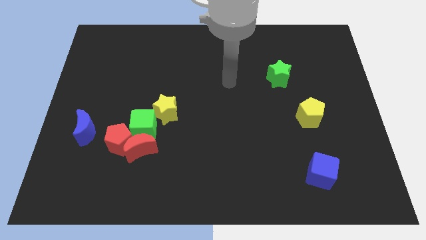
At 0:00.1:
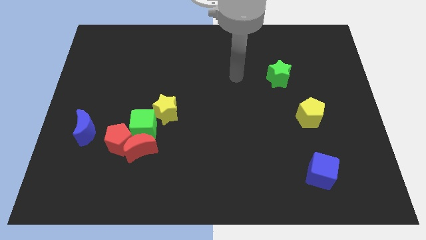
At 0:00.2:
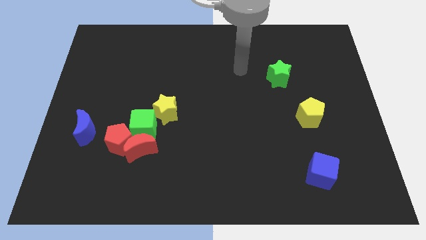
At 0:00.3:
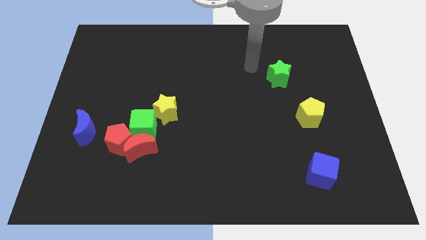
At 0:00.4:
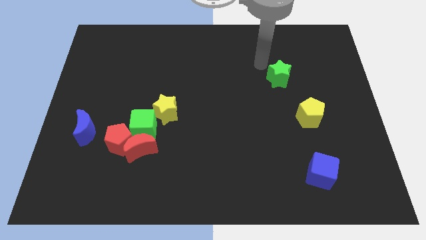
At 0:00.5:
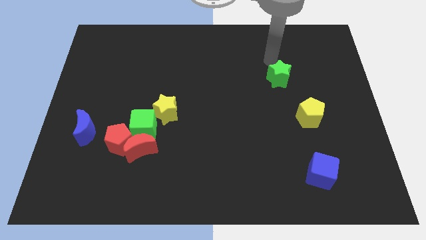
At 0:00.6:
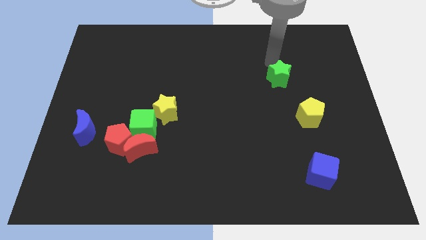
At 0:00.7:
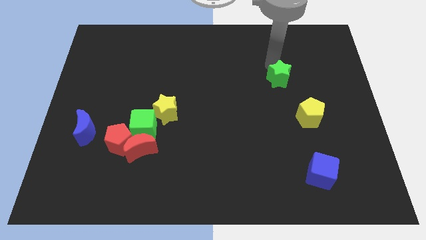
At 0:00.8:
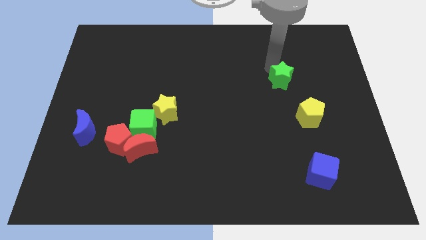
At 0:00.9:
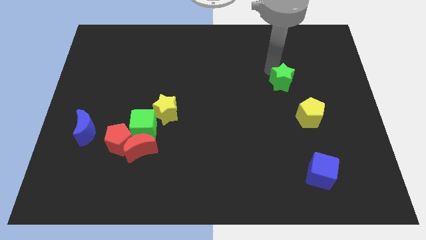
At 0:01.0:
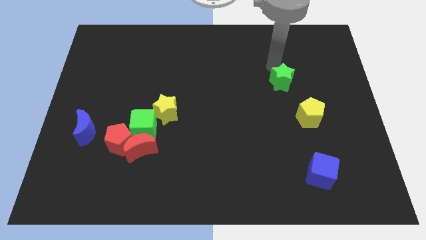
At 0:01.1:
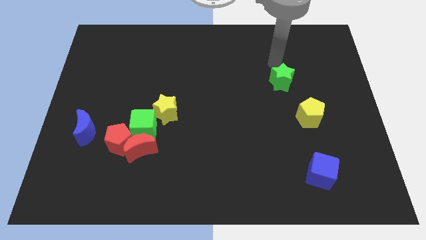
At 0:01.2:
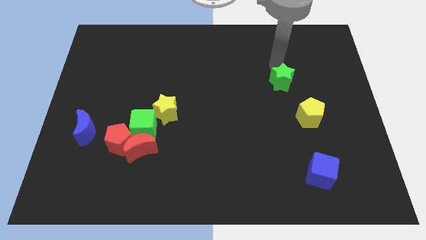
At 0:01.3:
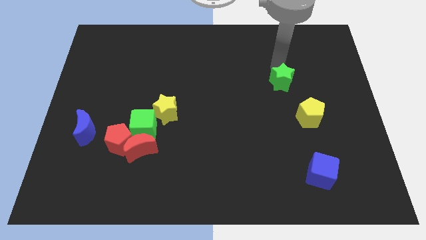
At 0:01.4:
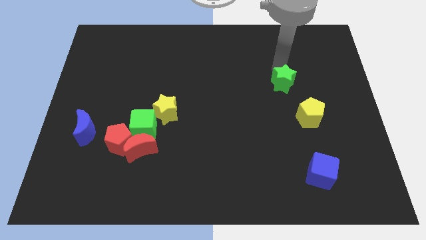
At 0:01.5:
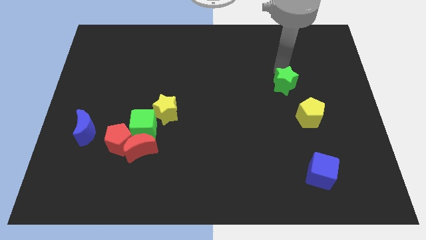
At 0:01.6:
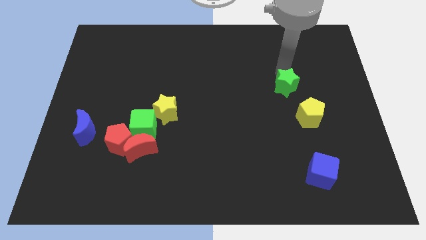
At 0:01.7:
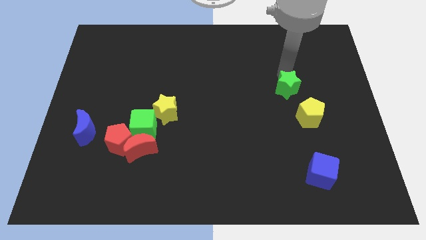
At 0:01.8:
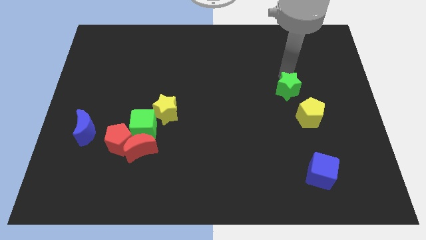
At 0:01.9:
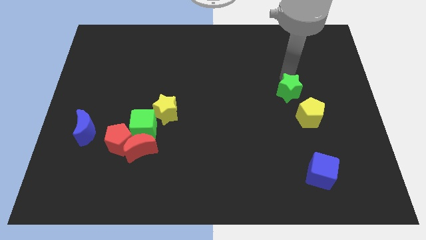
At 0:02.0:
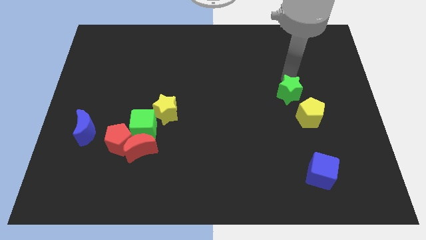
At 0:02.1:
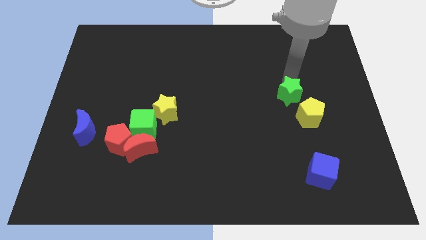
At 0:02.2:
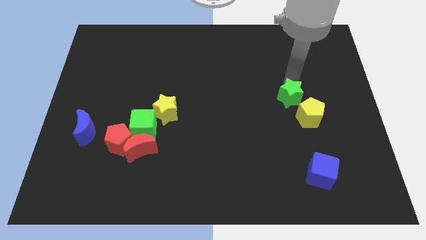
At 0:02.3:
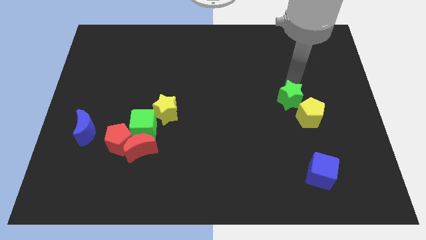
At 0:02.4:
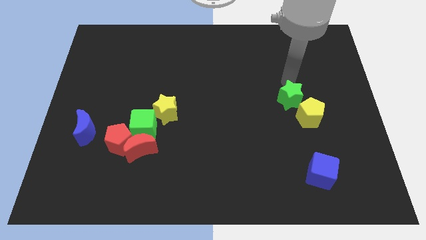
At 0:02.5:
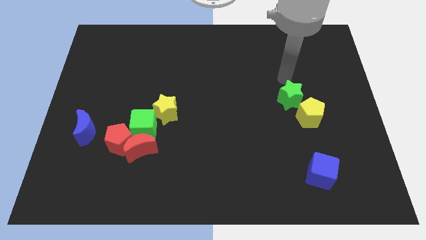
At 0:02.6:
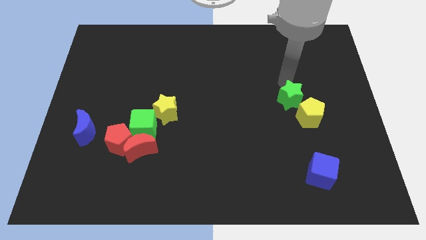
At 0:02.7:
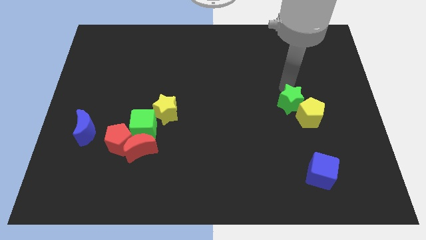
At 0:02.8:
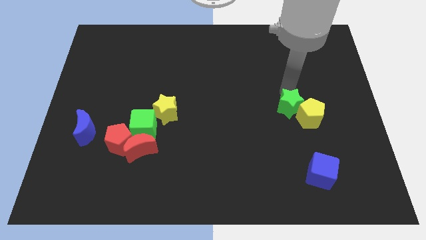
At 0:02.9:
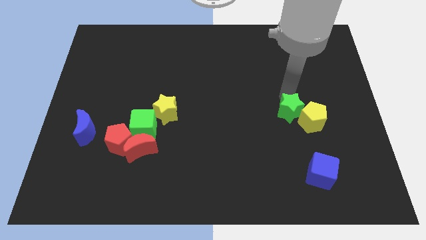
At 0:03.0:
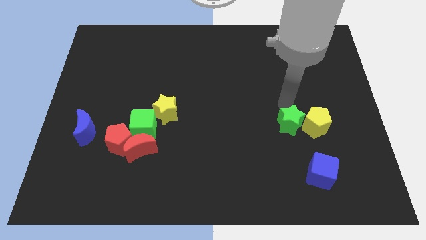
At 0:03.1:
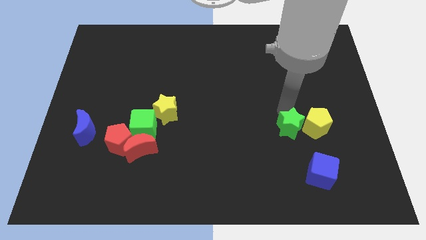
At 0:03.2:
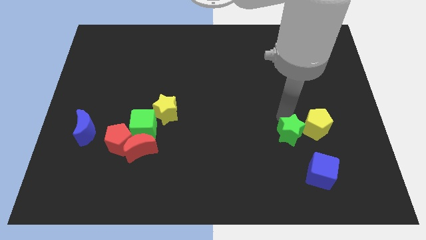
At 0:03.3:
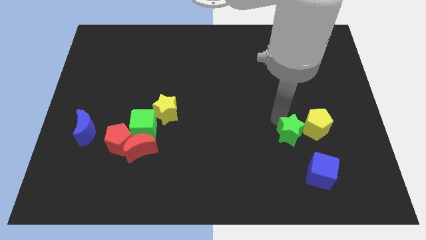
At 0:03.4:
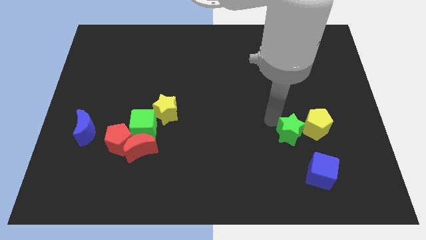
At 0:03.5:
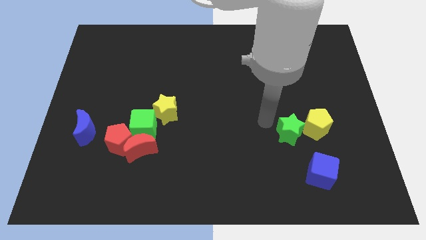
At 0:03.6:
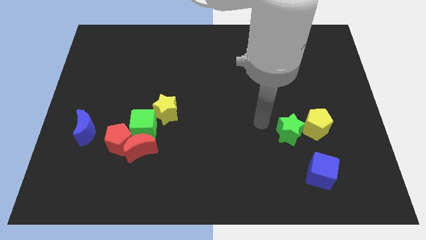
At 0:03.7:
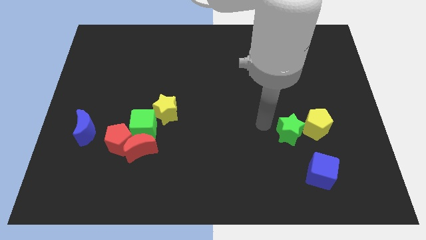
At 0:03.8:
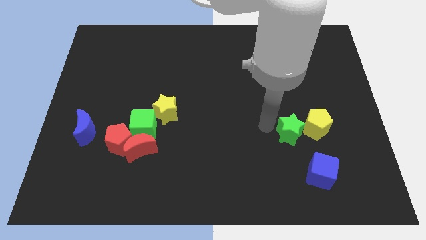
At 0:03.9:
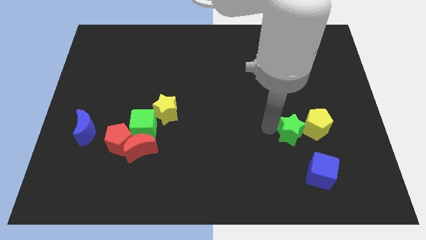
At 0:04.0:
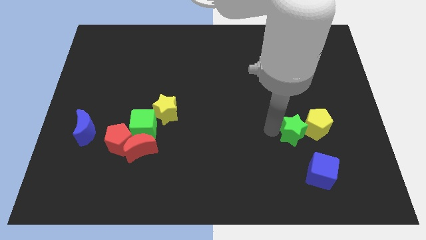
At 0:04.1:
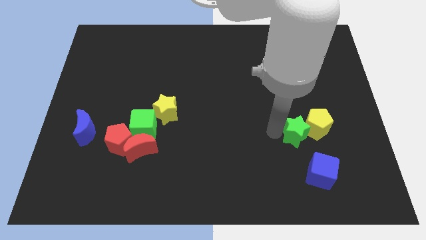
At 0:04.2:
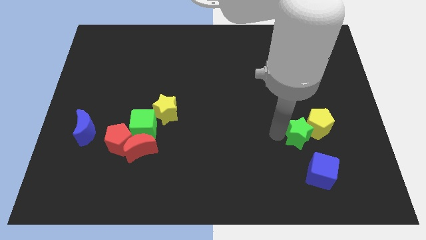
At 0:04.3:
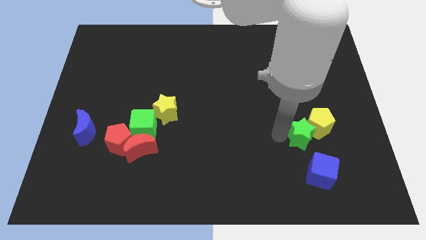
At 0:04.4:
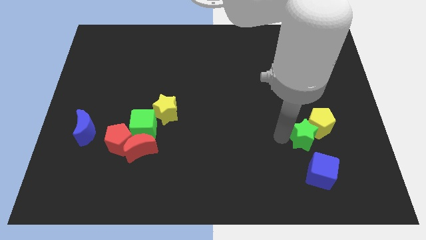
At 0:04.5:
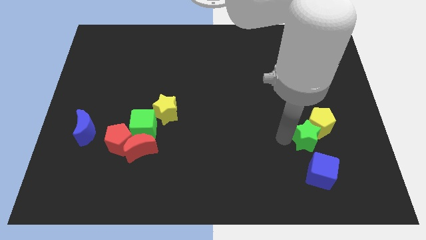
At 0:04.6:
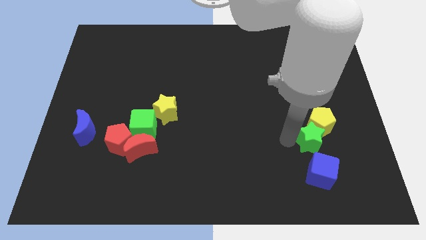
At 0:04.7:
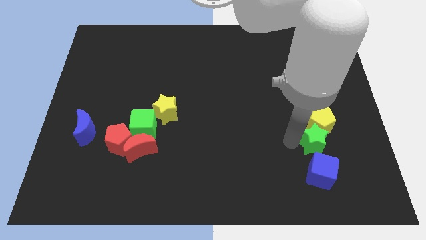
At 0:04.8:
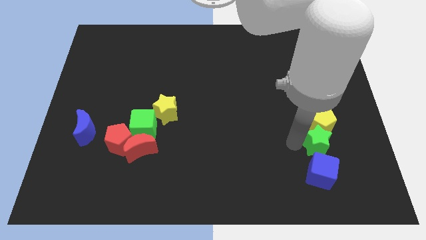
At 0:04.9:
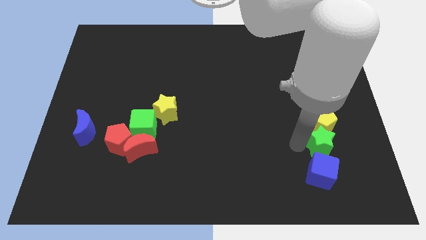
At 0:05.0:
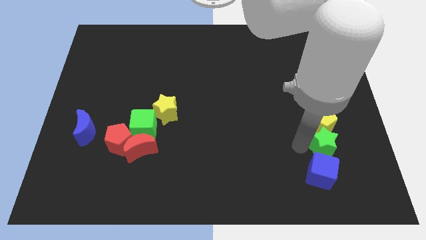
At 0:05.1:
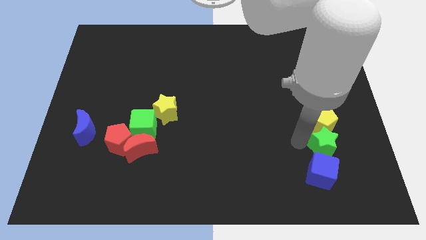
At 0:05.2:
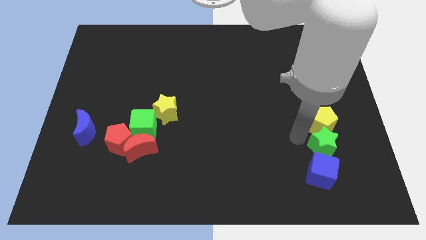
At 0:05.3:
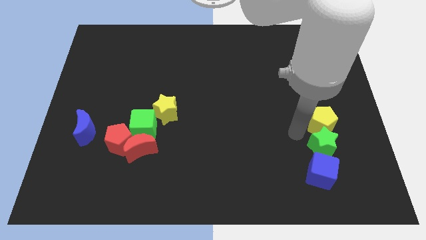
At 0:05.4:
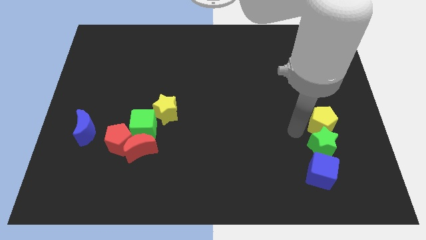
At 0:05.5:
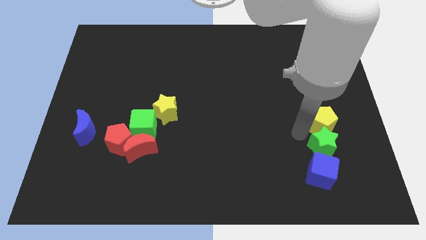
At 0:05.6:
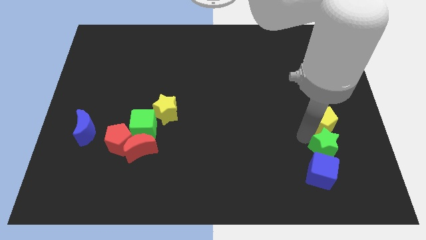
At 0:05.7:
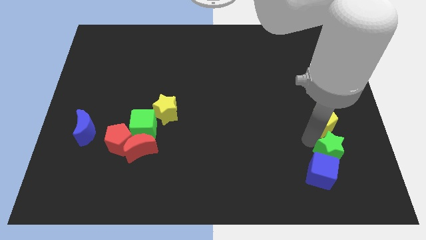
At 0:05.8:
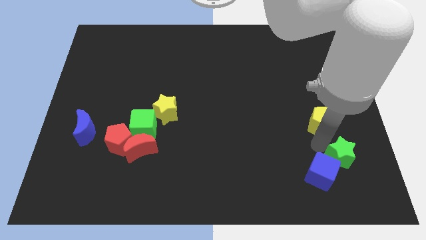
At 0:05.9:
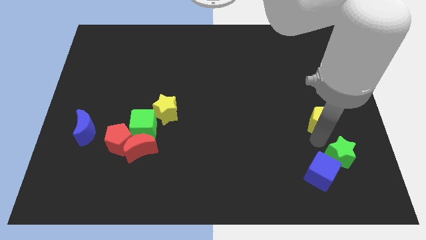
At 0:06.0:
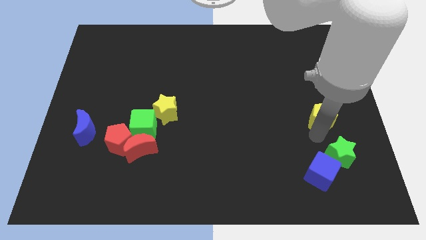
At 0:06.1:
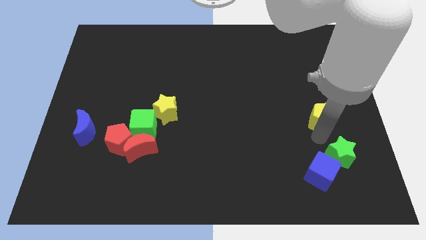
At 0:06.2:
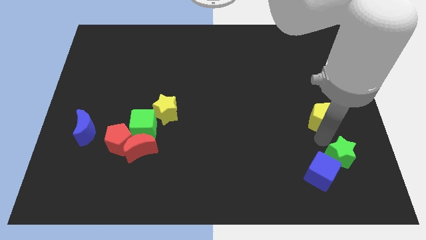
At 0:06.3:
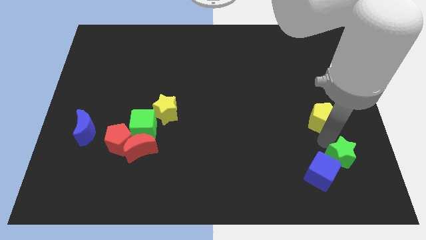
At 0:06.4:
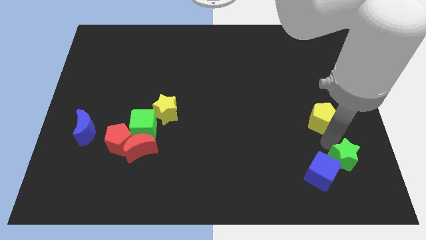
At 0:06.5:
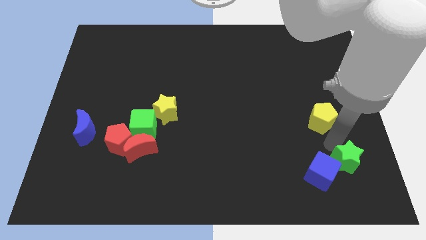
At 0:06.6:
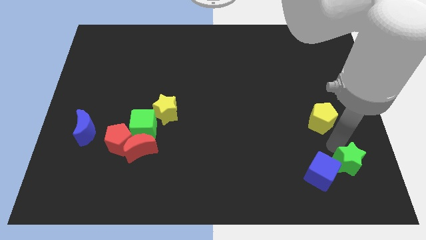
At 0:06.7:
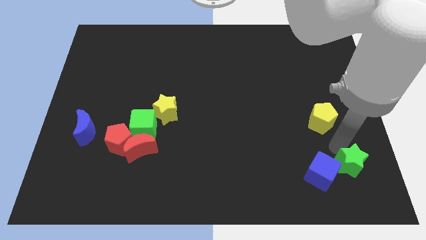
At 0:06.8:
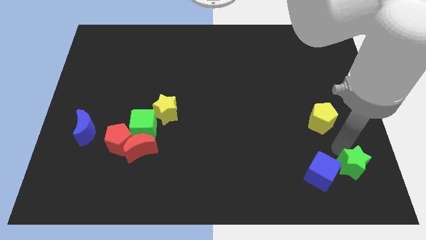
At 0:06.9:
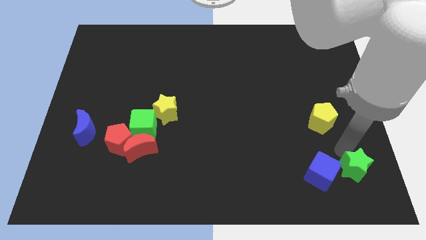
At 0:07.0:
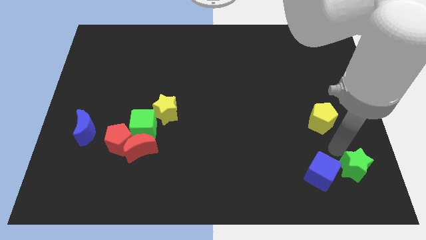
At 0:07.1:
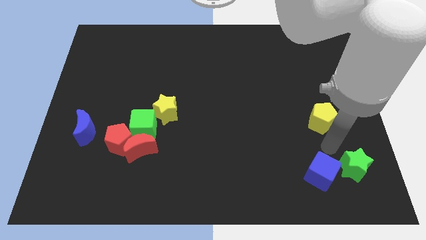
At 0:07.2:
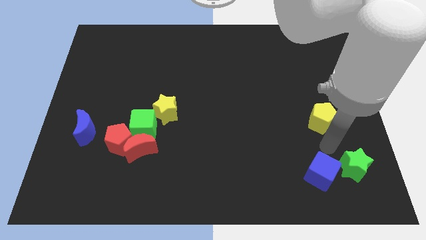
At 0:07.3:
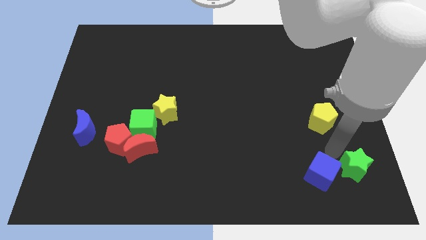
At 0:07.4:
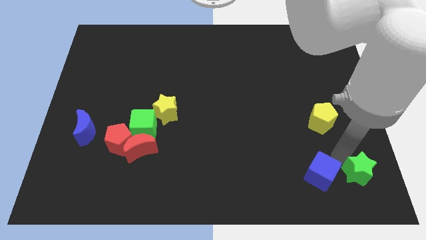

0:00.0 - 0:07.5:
move the green star to the bottom right of the board
